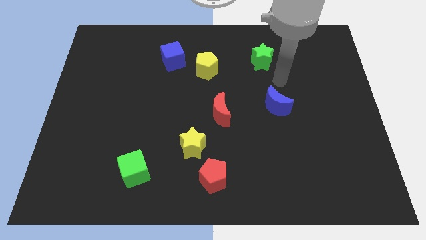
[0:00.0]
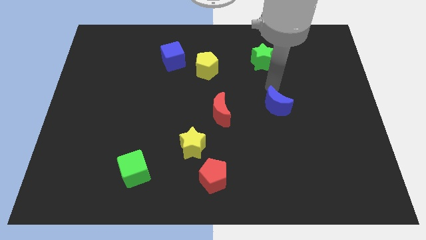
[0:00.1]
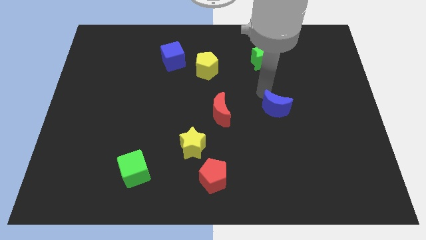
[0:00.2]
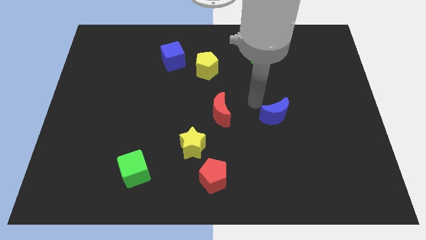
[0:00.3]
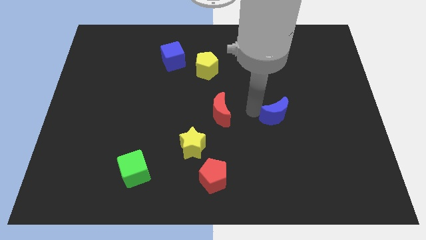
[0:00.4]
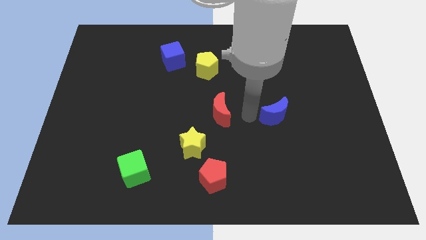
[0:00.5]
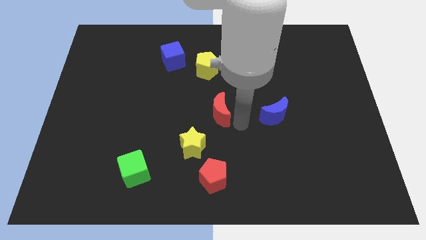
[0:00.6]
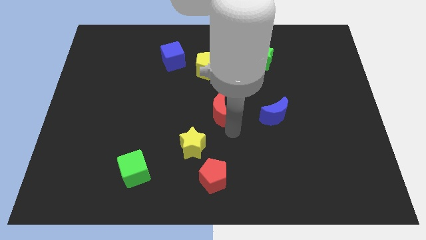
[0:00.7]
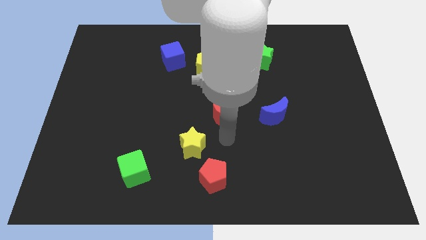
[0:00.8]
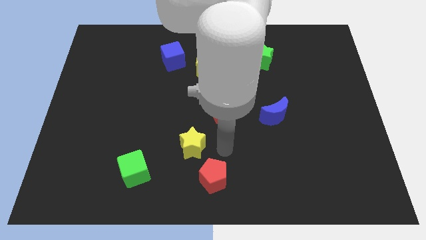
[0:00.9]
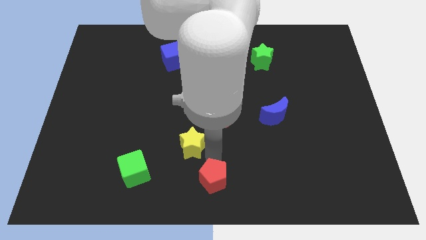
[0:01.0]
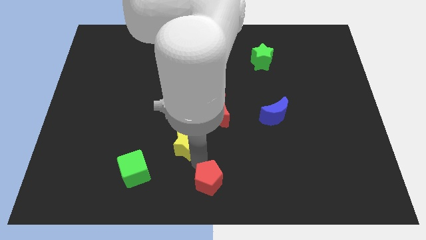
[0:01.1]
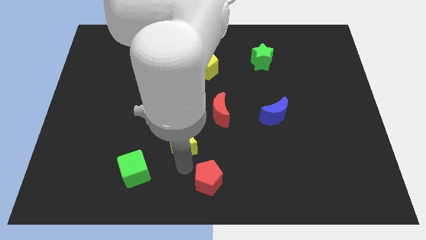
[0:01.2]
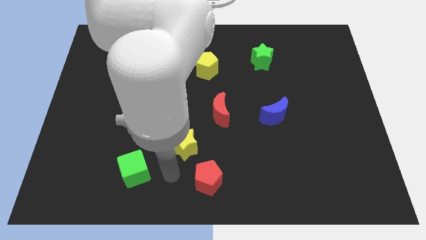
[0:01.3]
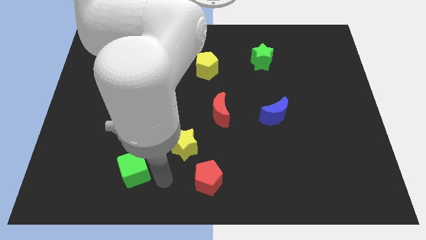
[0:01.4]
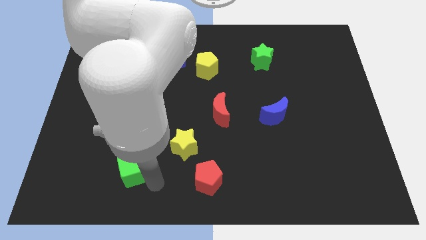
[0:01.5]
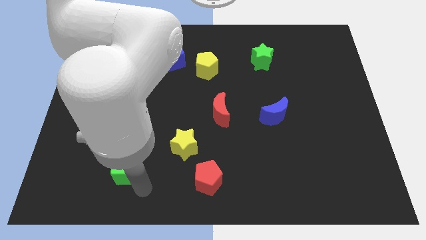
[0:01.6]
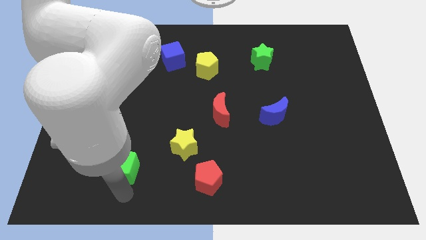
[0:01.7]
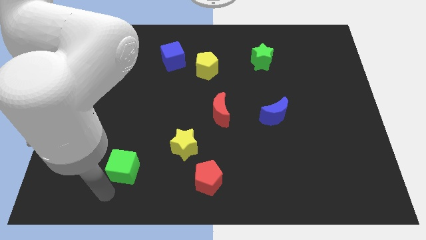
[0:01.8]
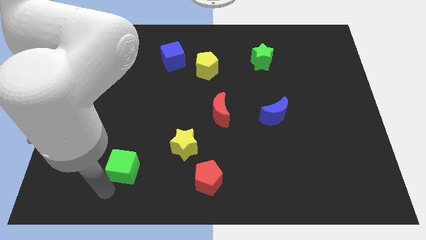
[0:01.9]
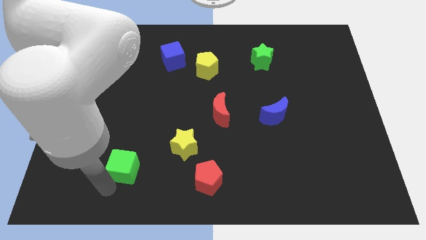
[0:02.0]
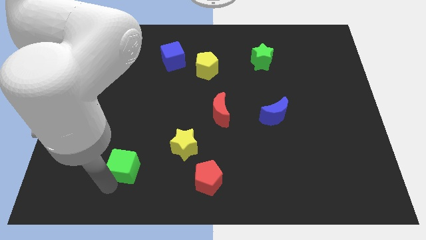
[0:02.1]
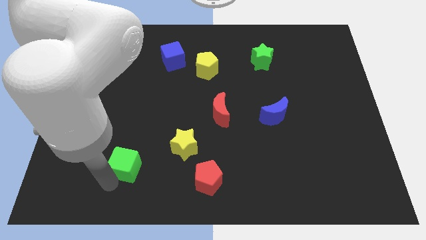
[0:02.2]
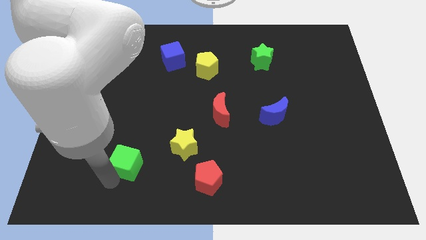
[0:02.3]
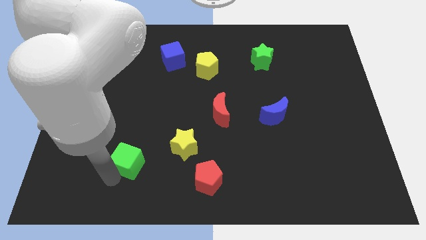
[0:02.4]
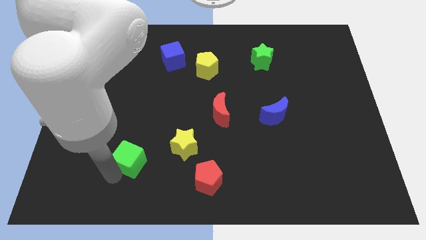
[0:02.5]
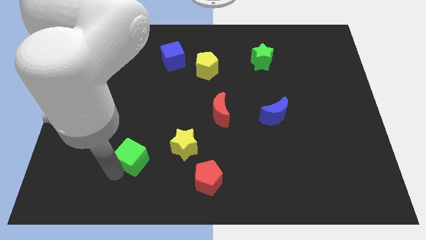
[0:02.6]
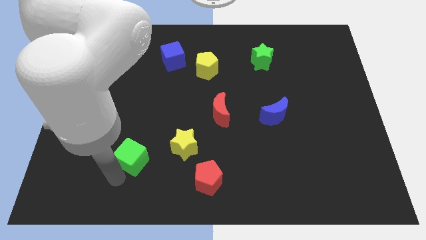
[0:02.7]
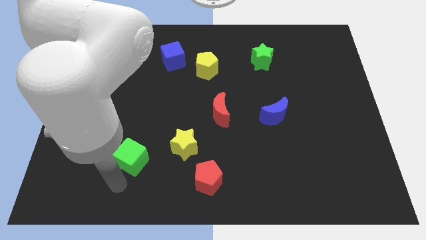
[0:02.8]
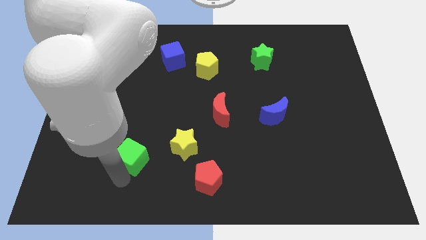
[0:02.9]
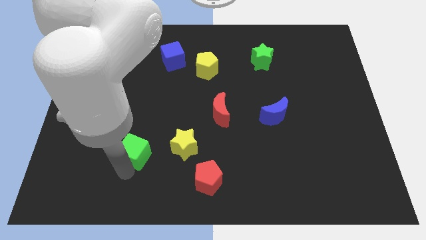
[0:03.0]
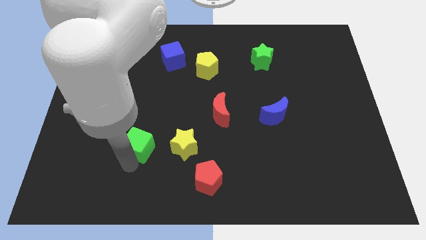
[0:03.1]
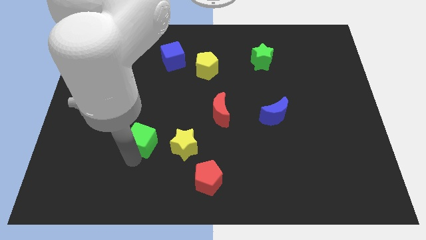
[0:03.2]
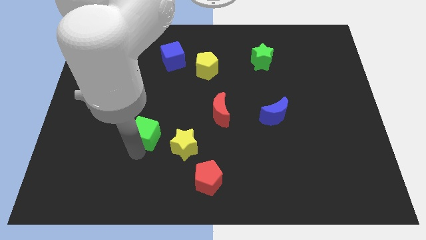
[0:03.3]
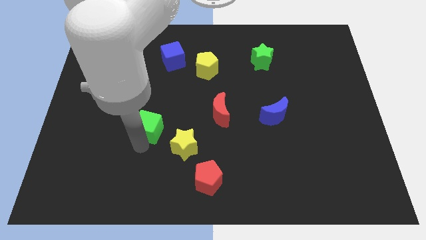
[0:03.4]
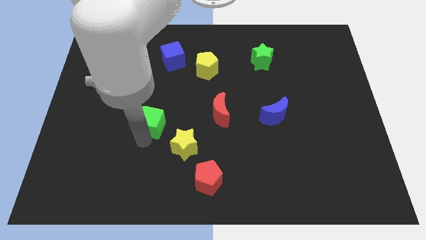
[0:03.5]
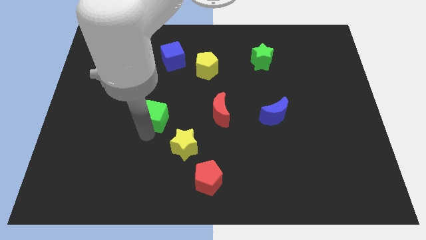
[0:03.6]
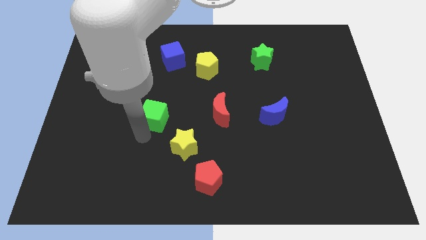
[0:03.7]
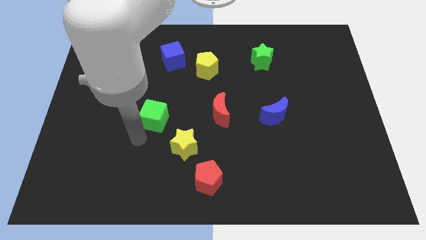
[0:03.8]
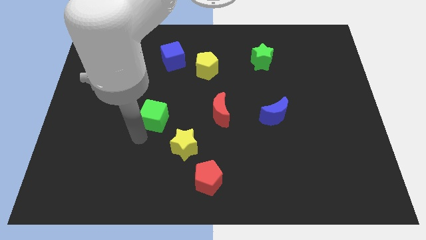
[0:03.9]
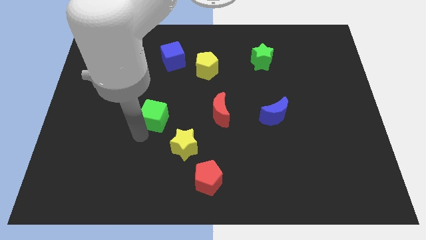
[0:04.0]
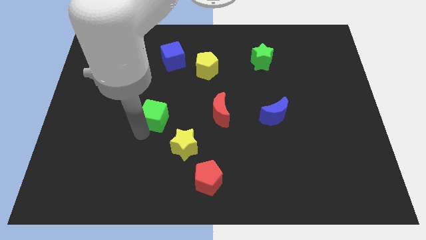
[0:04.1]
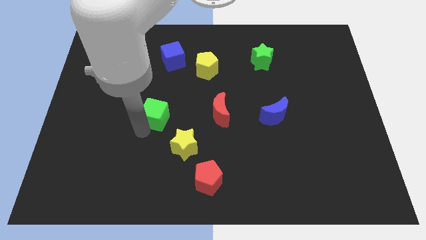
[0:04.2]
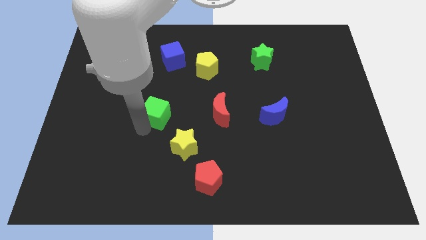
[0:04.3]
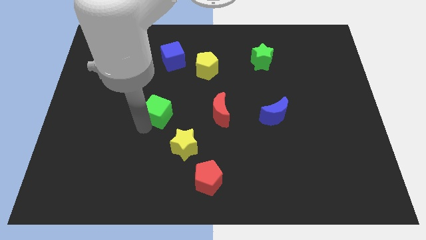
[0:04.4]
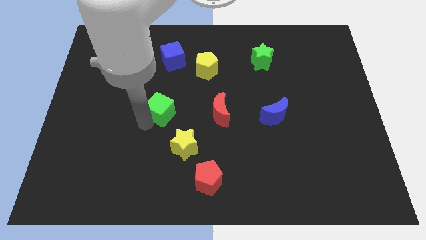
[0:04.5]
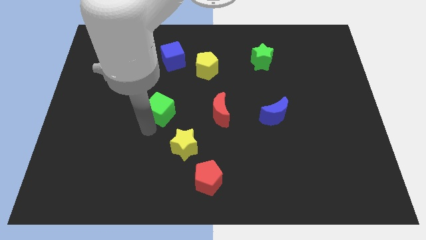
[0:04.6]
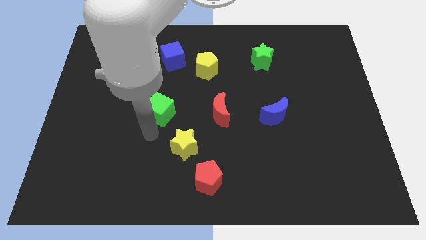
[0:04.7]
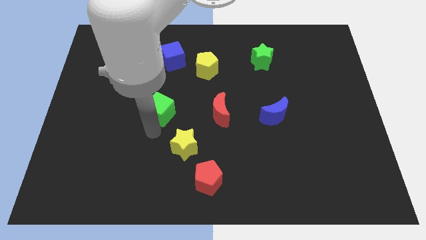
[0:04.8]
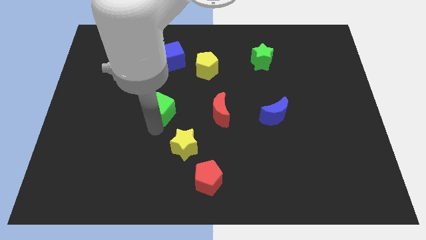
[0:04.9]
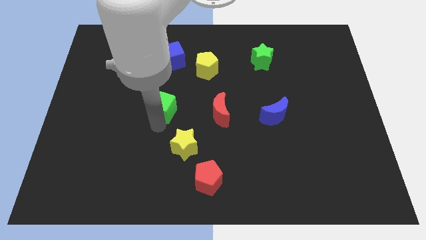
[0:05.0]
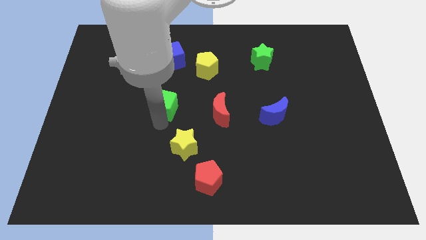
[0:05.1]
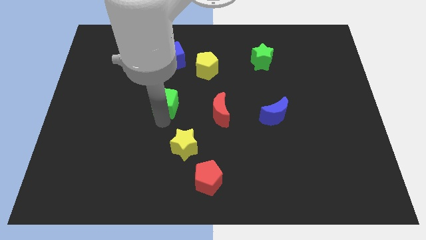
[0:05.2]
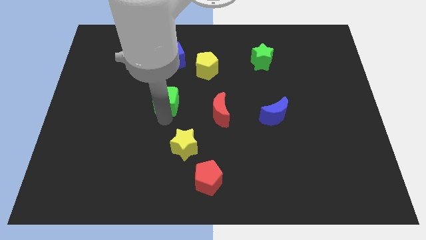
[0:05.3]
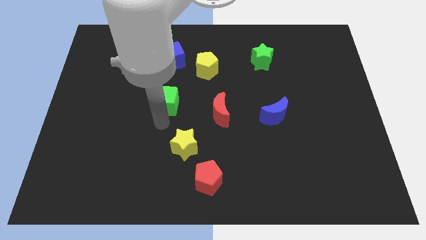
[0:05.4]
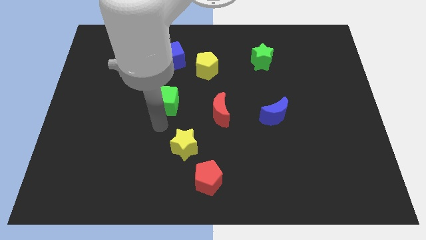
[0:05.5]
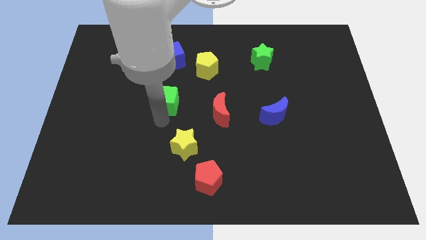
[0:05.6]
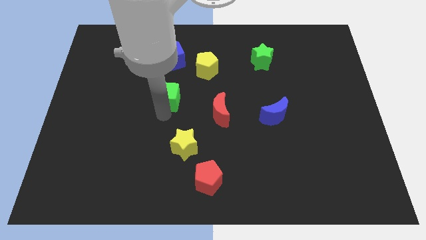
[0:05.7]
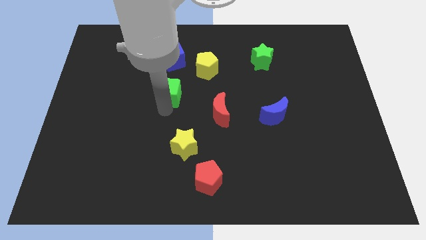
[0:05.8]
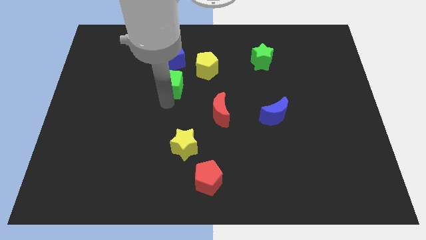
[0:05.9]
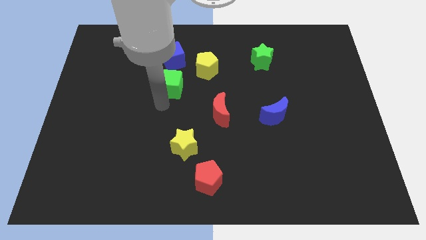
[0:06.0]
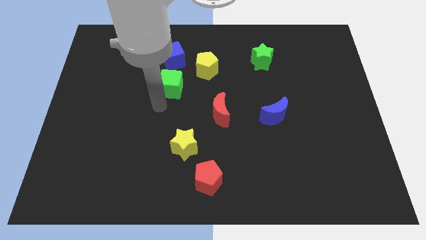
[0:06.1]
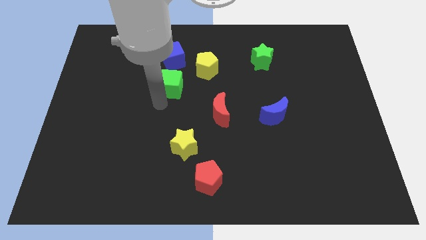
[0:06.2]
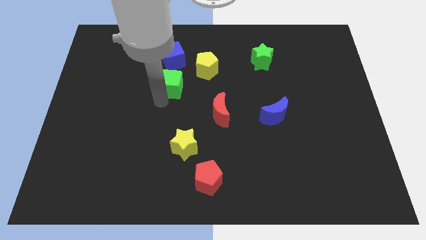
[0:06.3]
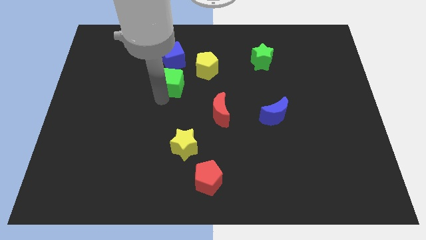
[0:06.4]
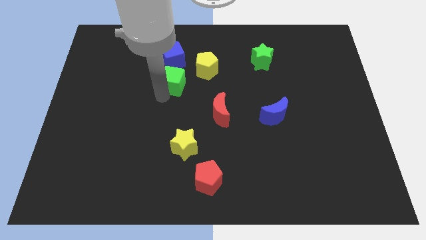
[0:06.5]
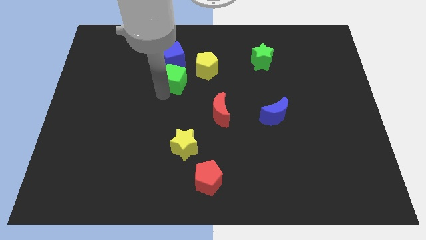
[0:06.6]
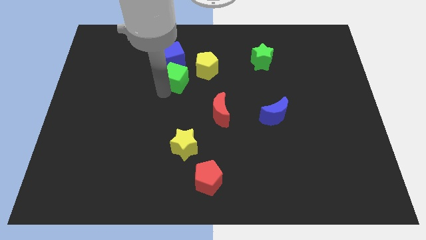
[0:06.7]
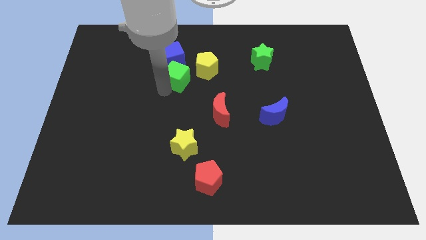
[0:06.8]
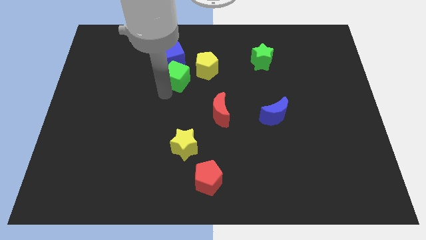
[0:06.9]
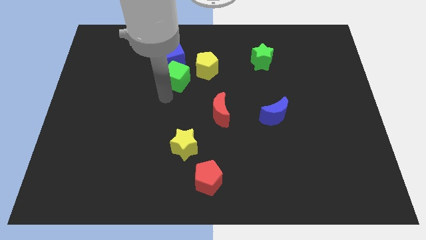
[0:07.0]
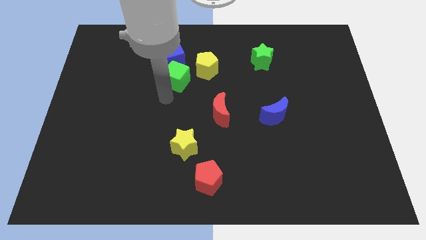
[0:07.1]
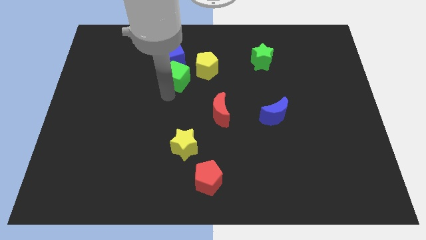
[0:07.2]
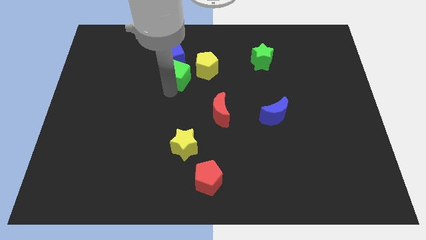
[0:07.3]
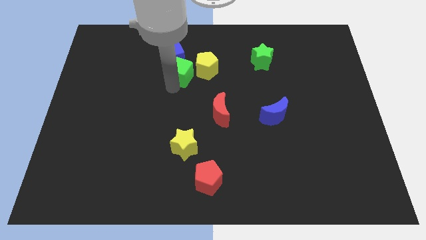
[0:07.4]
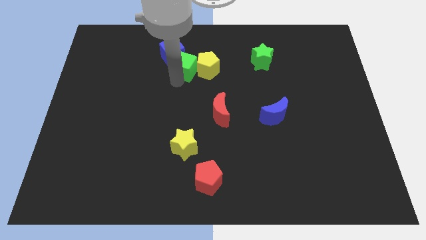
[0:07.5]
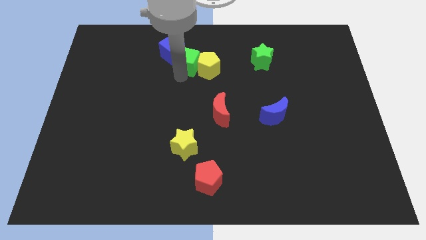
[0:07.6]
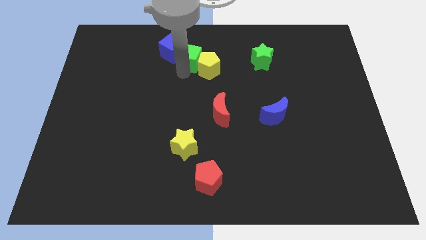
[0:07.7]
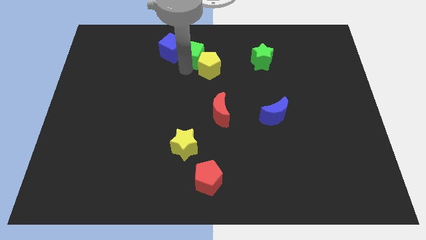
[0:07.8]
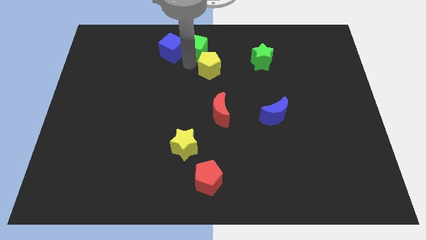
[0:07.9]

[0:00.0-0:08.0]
move the green cube to the towards your base
